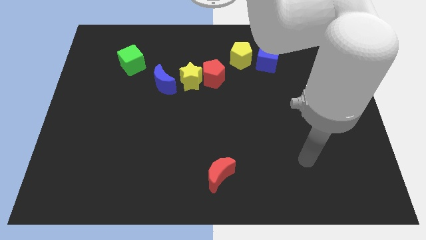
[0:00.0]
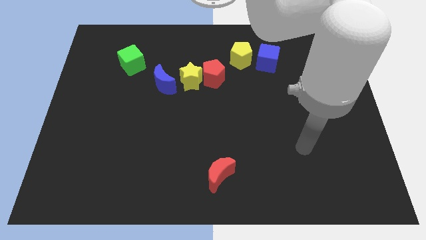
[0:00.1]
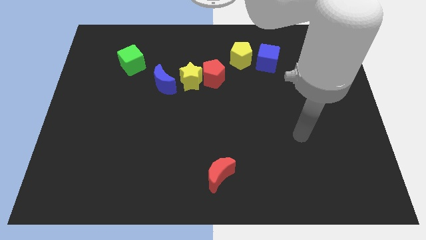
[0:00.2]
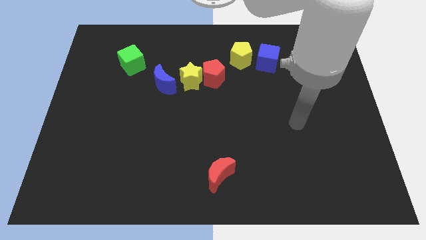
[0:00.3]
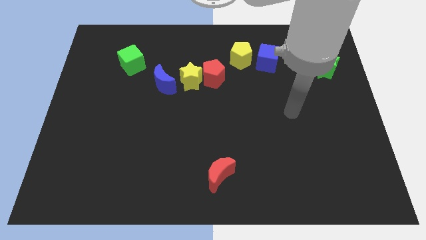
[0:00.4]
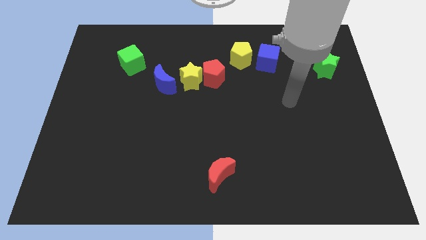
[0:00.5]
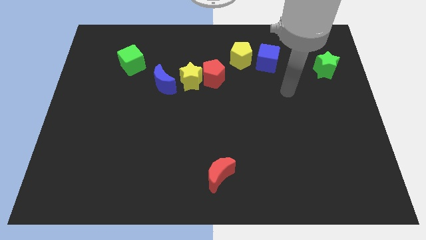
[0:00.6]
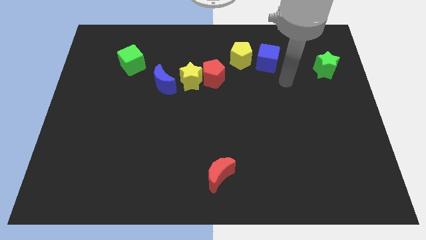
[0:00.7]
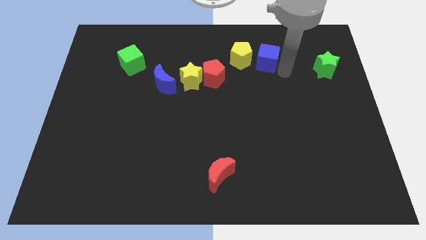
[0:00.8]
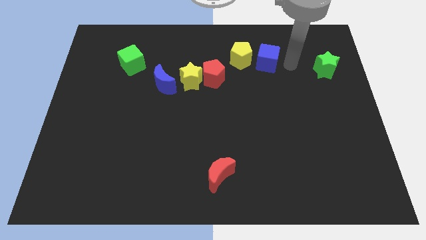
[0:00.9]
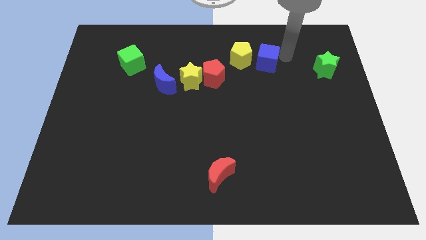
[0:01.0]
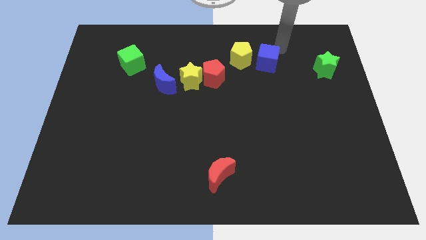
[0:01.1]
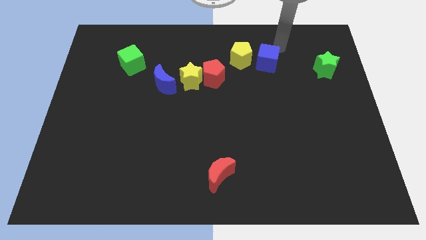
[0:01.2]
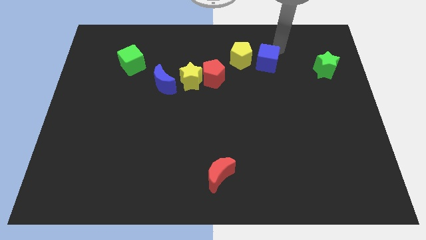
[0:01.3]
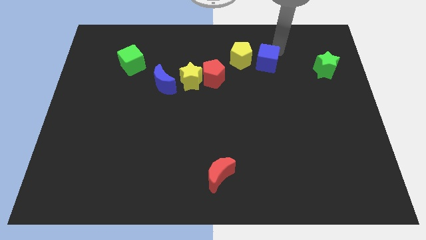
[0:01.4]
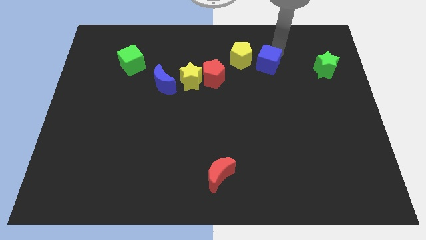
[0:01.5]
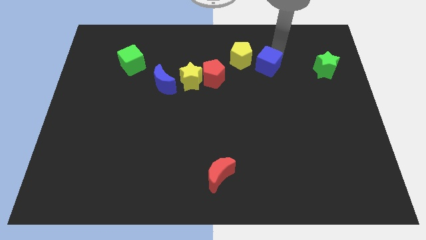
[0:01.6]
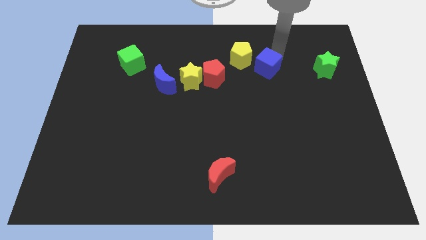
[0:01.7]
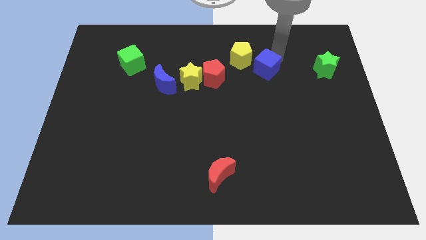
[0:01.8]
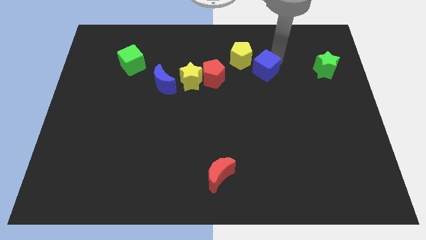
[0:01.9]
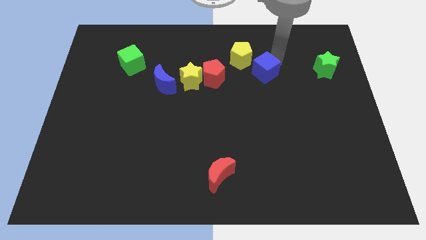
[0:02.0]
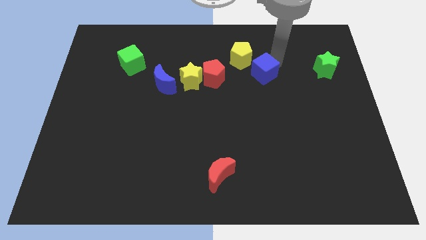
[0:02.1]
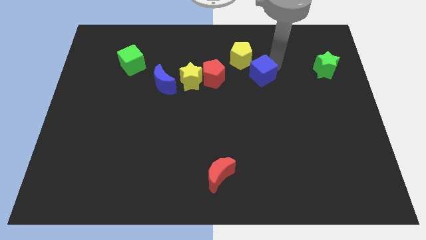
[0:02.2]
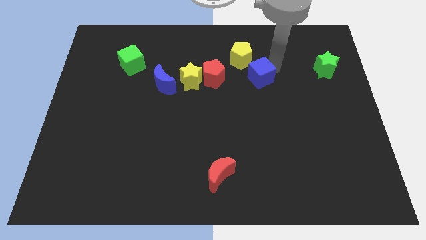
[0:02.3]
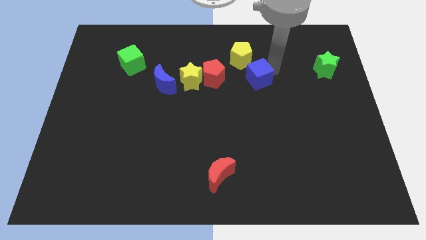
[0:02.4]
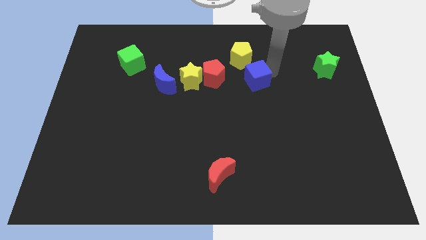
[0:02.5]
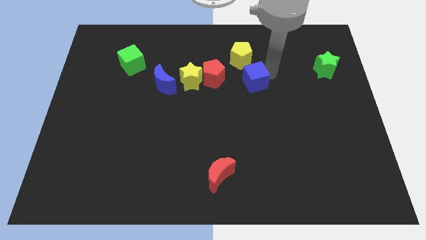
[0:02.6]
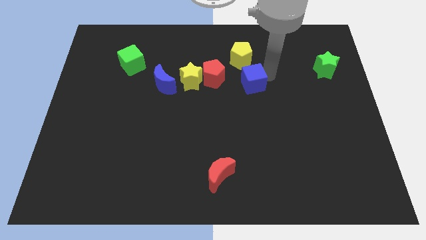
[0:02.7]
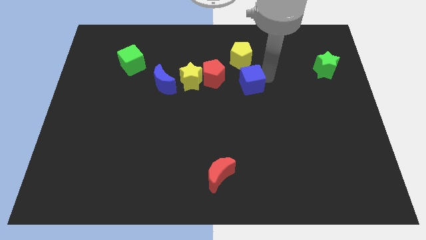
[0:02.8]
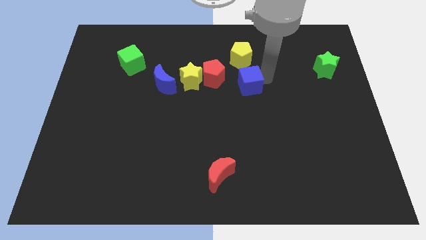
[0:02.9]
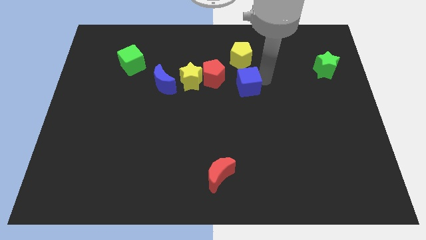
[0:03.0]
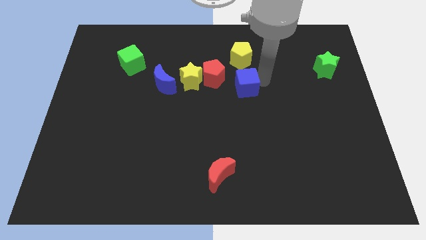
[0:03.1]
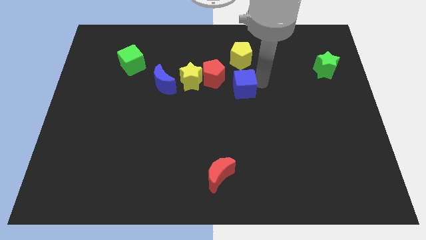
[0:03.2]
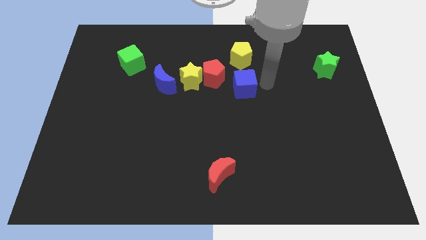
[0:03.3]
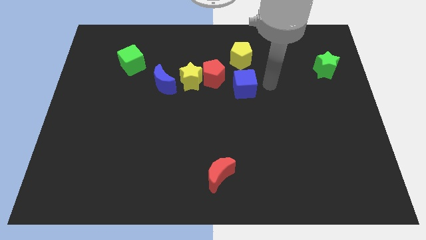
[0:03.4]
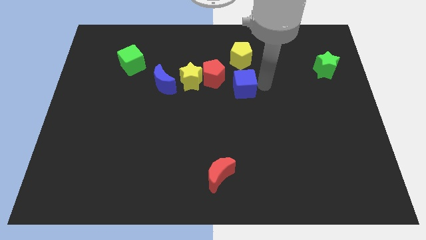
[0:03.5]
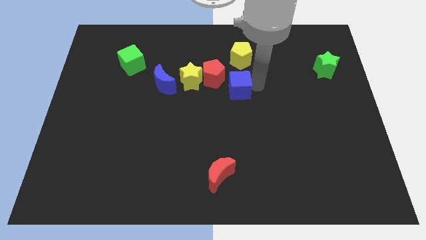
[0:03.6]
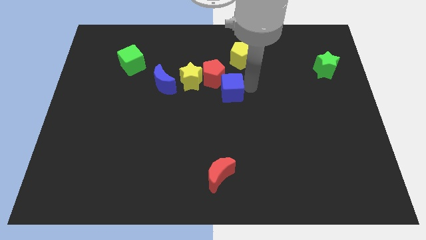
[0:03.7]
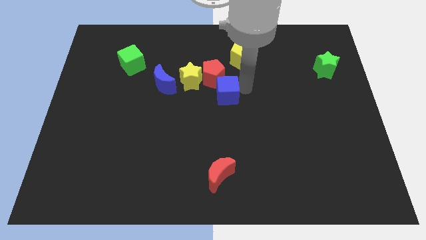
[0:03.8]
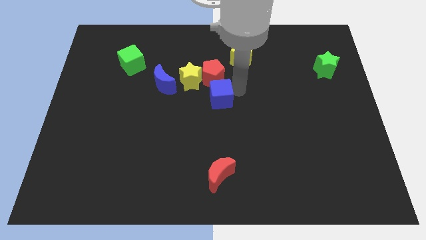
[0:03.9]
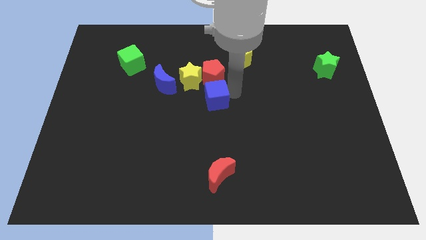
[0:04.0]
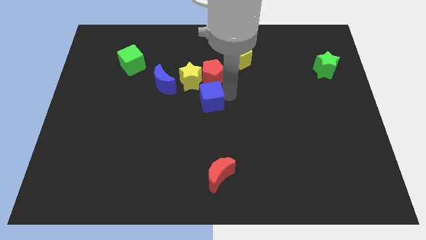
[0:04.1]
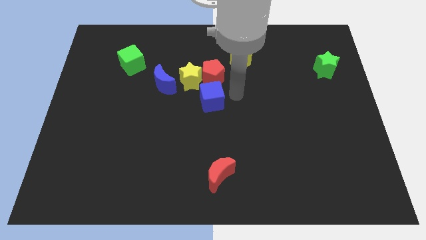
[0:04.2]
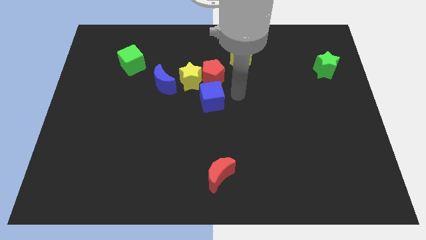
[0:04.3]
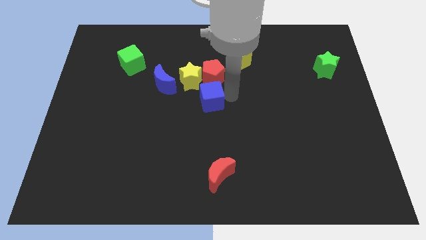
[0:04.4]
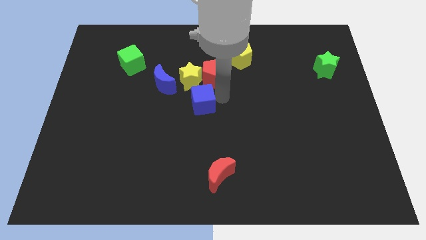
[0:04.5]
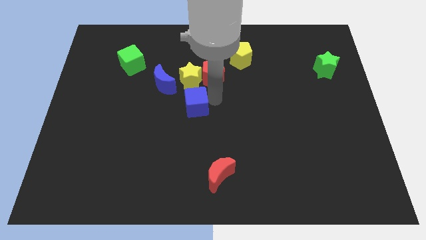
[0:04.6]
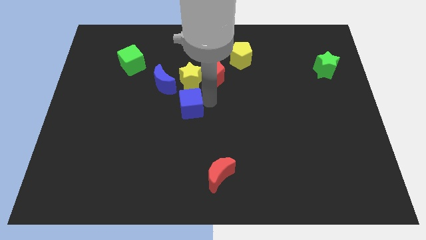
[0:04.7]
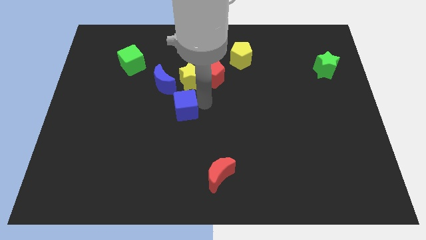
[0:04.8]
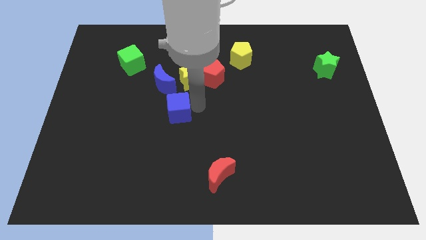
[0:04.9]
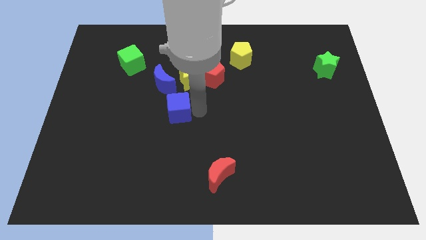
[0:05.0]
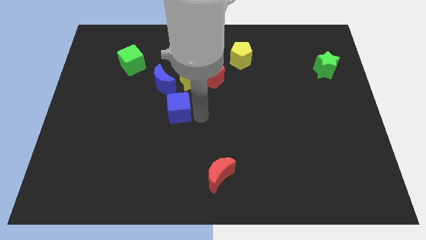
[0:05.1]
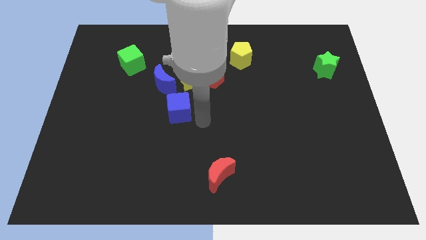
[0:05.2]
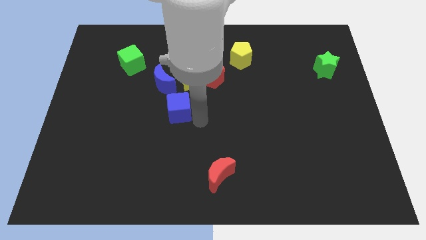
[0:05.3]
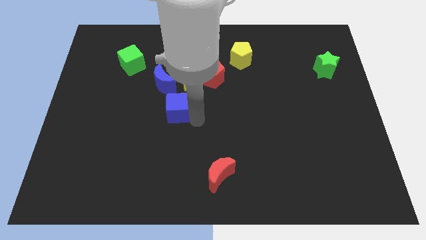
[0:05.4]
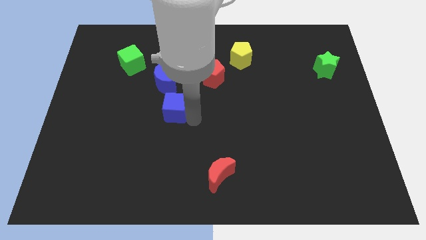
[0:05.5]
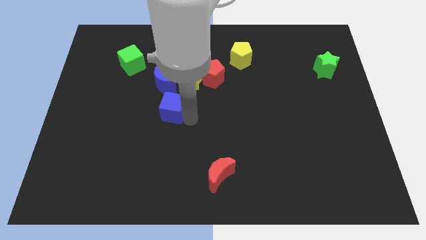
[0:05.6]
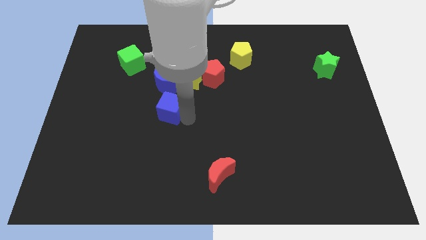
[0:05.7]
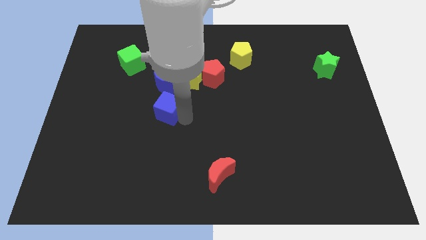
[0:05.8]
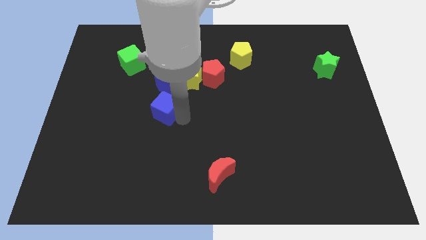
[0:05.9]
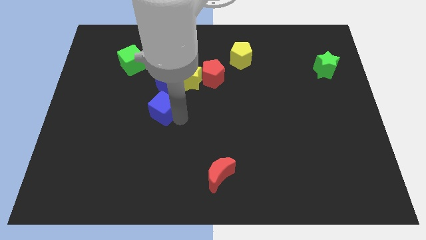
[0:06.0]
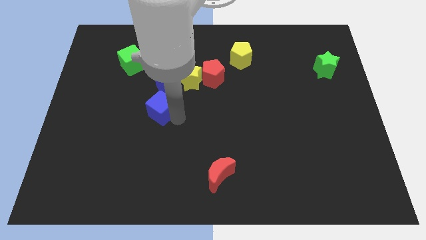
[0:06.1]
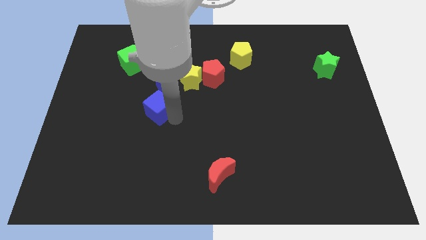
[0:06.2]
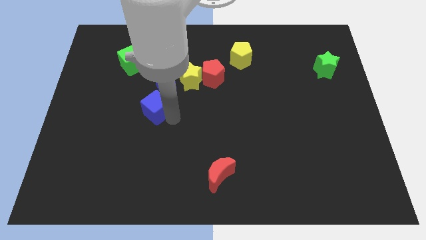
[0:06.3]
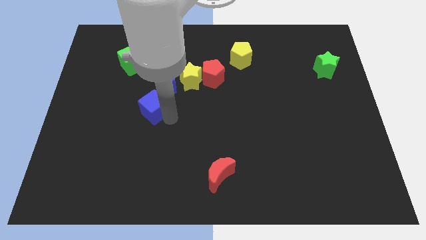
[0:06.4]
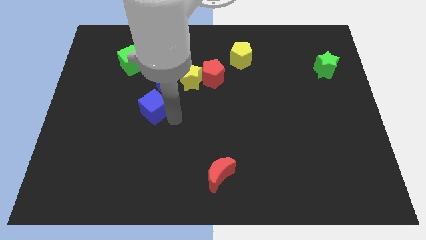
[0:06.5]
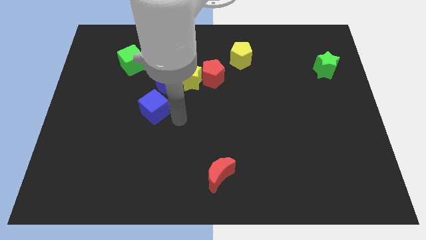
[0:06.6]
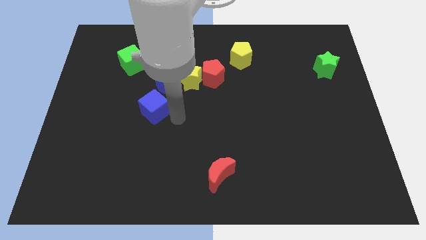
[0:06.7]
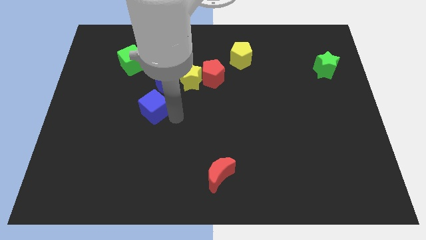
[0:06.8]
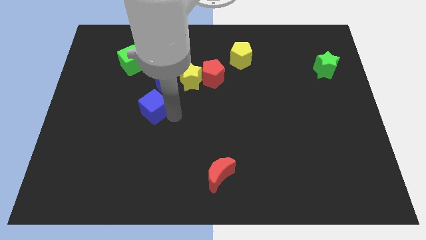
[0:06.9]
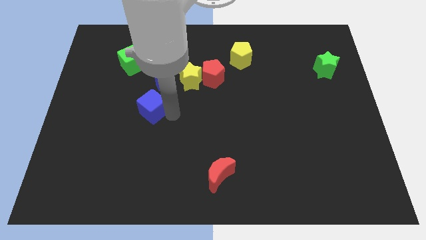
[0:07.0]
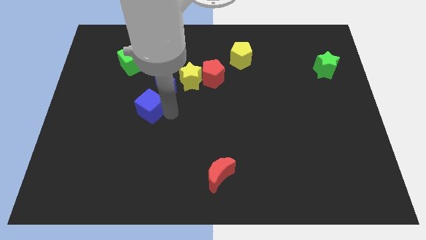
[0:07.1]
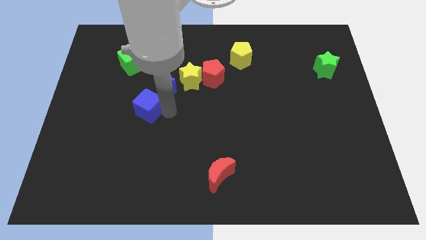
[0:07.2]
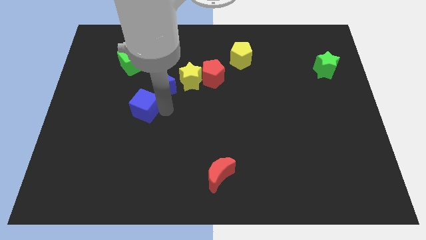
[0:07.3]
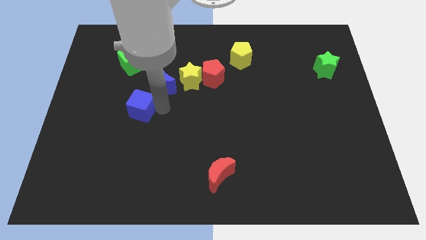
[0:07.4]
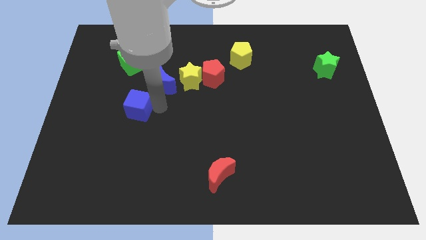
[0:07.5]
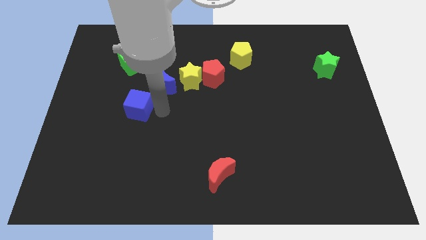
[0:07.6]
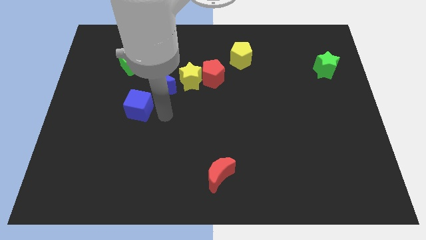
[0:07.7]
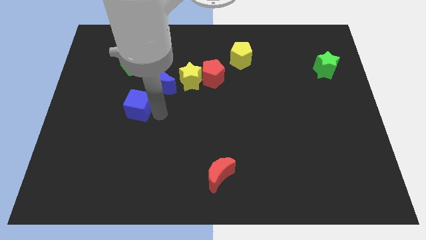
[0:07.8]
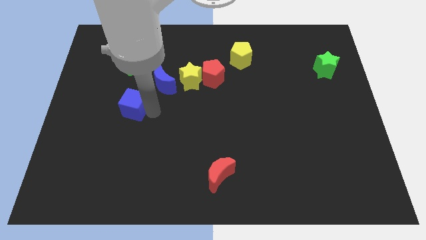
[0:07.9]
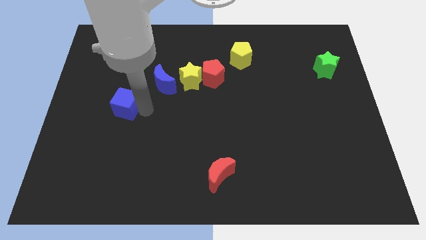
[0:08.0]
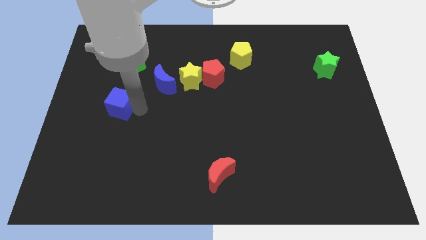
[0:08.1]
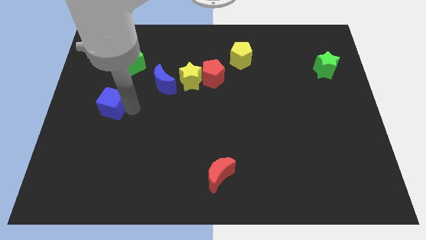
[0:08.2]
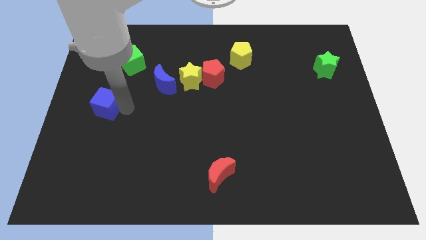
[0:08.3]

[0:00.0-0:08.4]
slide the blue cube to the center left
